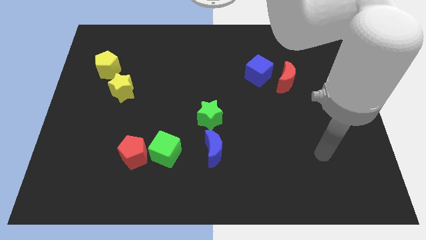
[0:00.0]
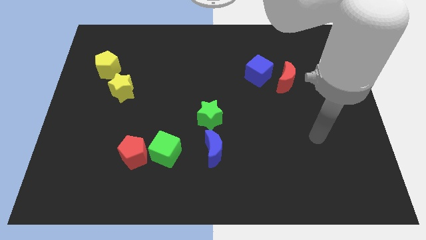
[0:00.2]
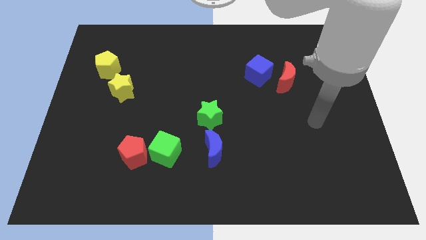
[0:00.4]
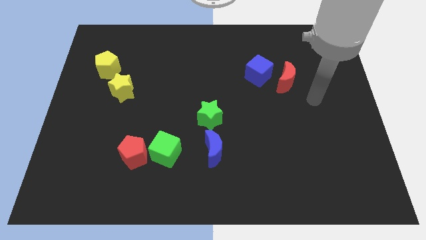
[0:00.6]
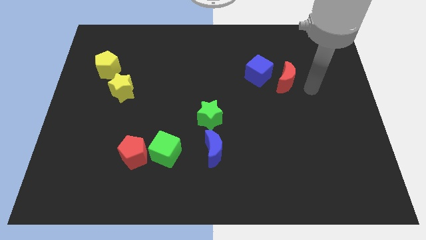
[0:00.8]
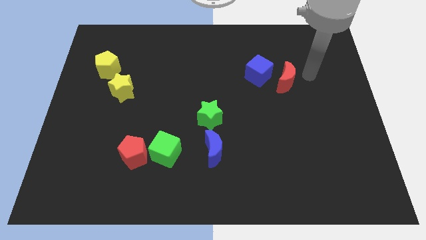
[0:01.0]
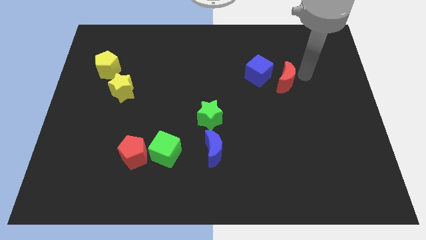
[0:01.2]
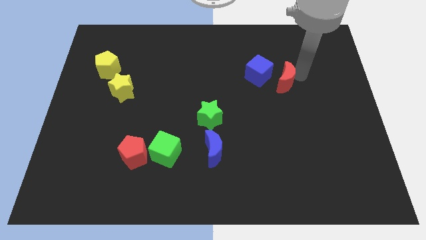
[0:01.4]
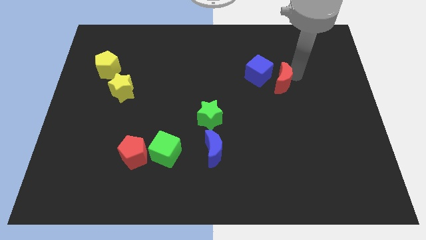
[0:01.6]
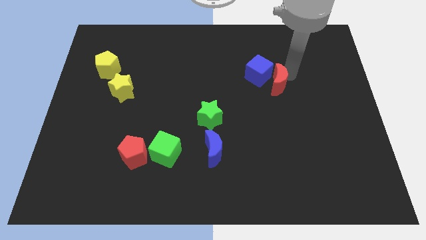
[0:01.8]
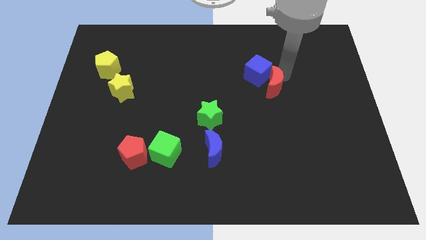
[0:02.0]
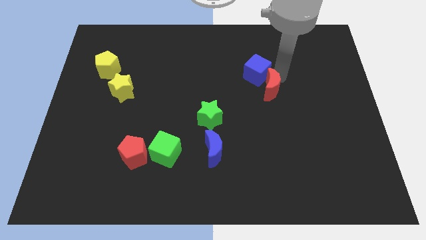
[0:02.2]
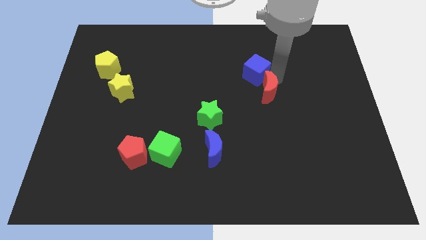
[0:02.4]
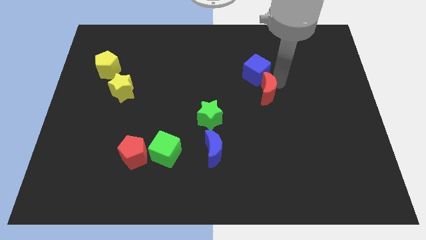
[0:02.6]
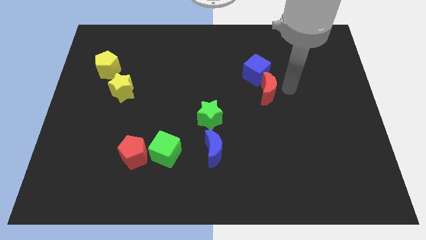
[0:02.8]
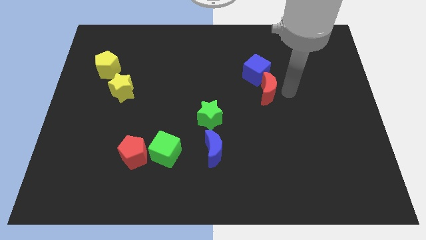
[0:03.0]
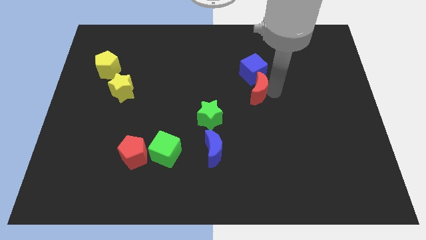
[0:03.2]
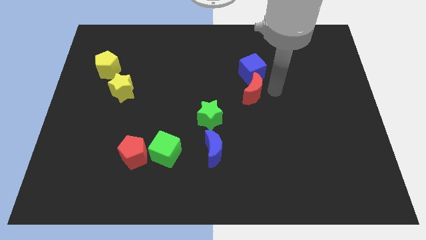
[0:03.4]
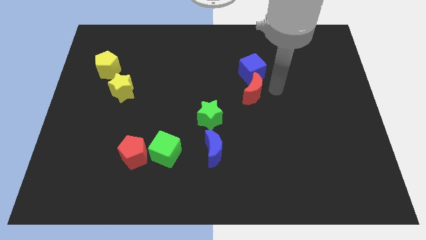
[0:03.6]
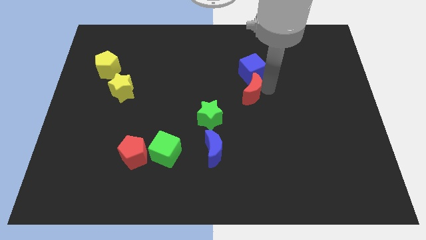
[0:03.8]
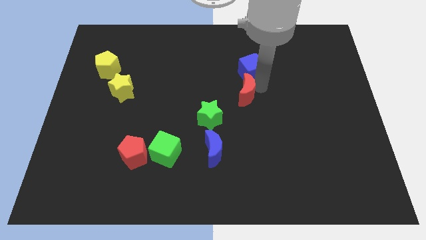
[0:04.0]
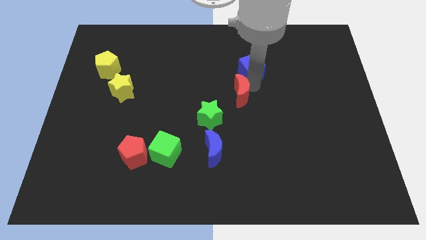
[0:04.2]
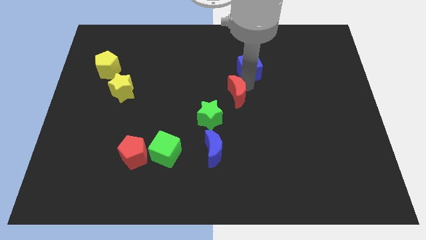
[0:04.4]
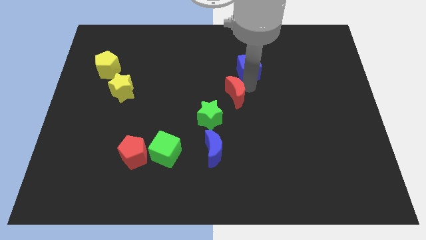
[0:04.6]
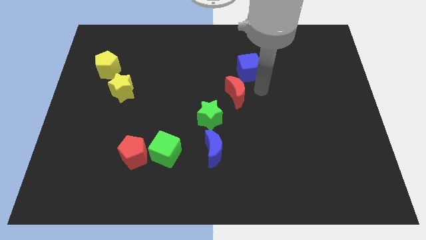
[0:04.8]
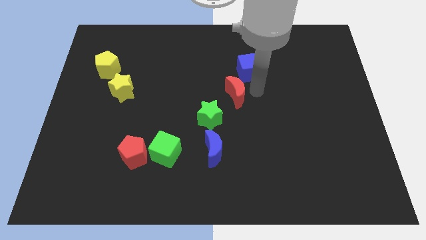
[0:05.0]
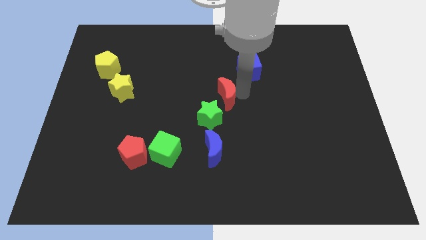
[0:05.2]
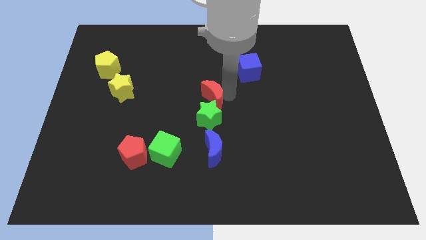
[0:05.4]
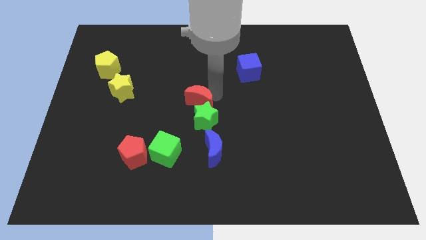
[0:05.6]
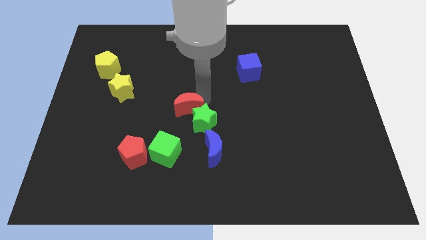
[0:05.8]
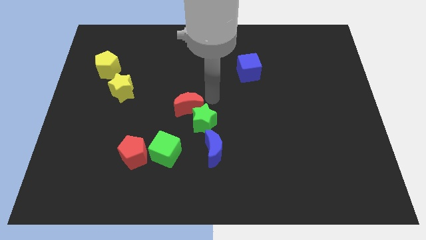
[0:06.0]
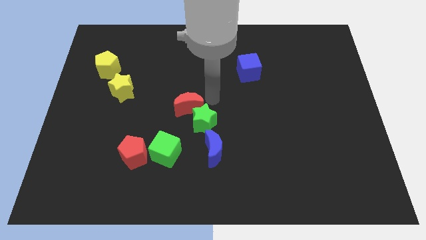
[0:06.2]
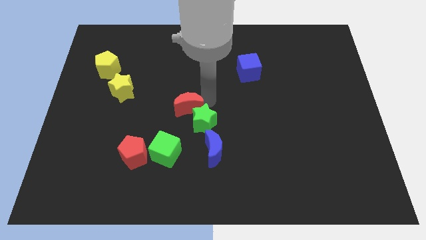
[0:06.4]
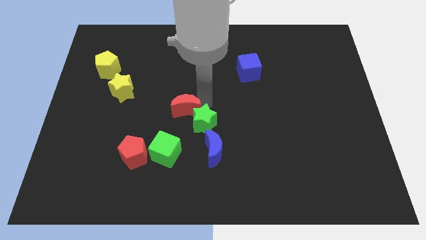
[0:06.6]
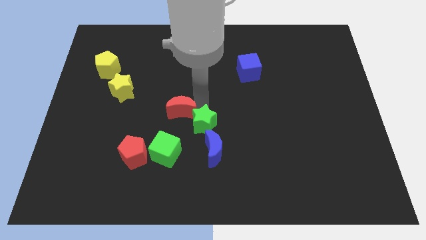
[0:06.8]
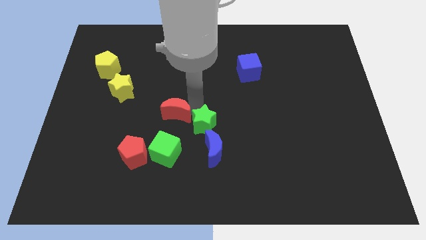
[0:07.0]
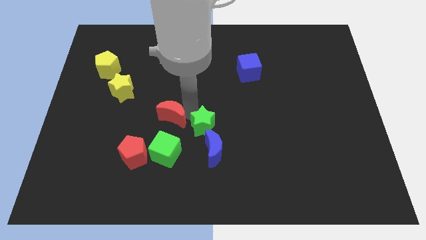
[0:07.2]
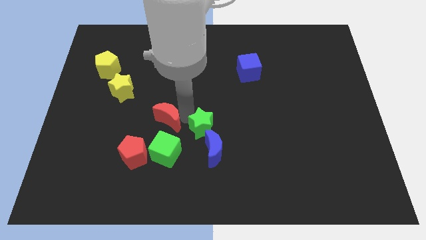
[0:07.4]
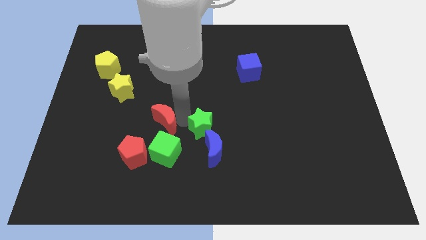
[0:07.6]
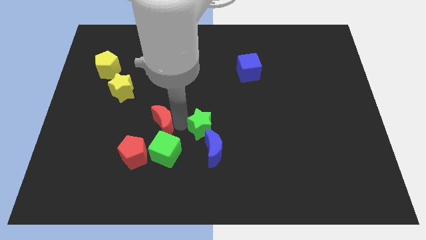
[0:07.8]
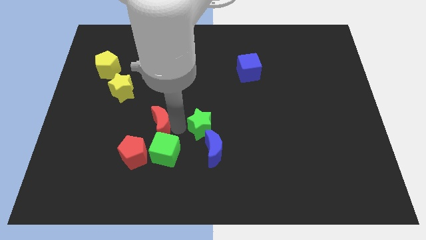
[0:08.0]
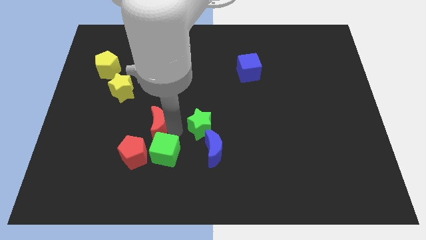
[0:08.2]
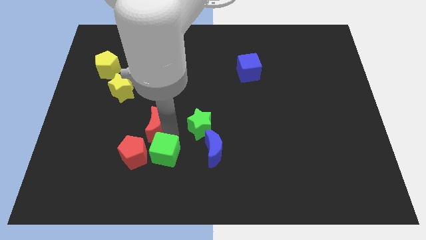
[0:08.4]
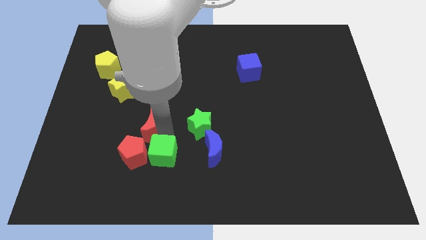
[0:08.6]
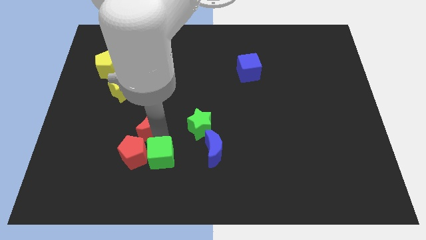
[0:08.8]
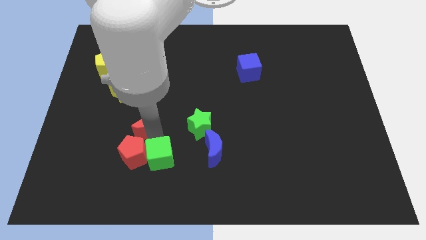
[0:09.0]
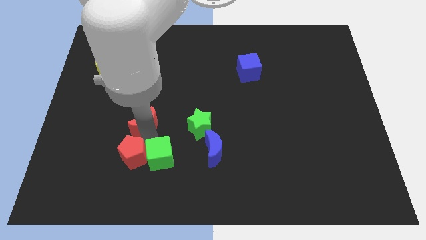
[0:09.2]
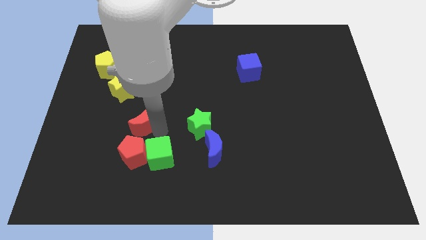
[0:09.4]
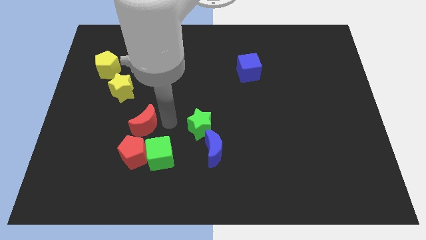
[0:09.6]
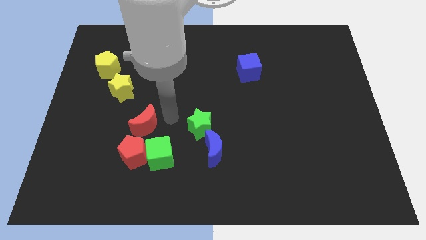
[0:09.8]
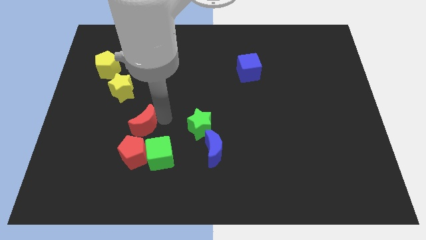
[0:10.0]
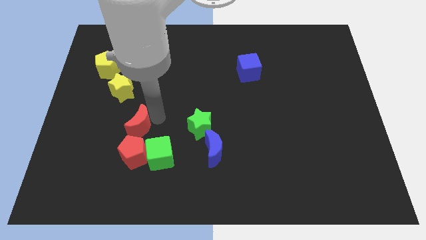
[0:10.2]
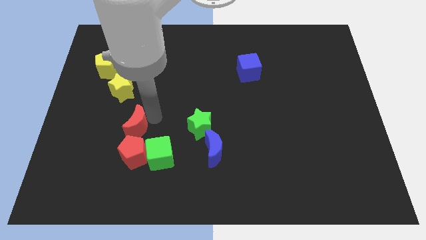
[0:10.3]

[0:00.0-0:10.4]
move the red moon to the top left side of the red pentagon

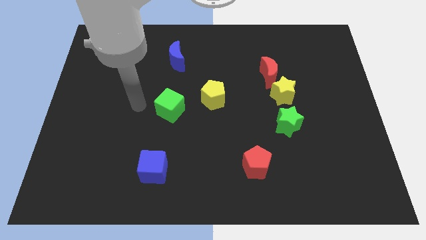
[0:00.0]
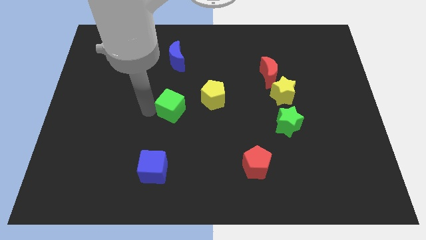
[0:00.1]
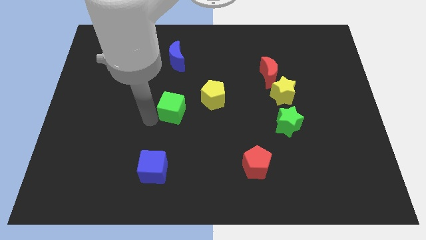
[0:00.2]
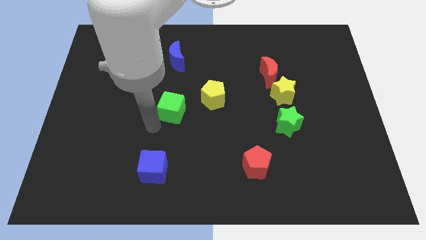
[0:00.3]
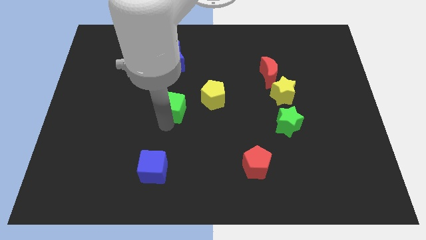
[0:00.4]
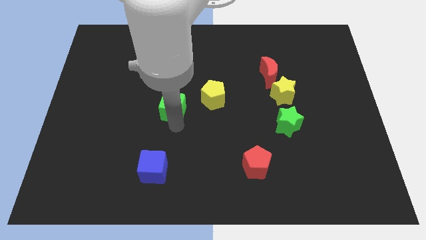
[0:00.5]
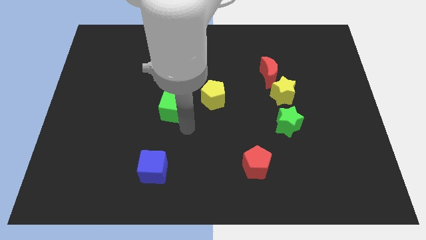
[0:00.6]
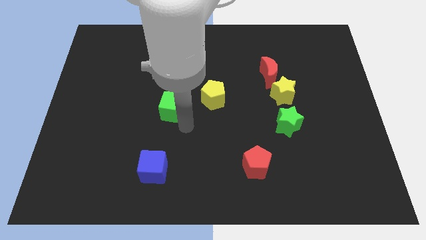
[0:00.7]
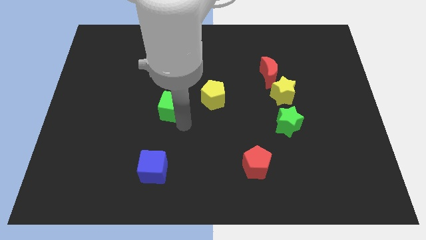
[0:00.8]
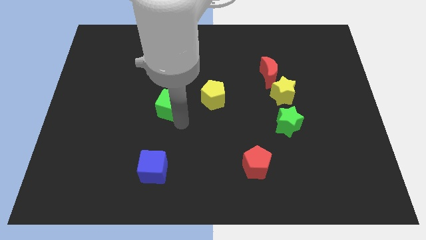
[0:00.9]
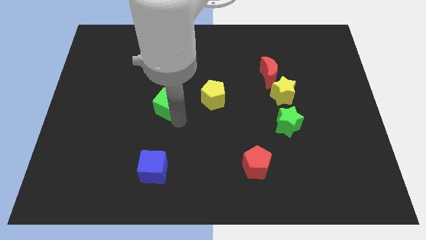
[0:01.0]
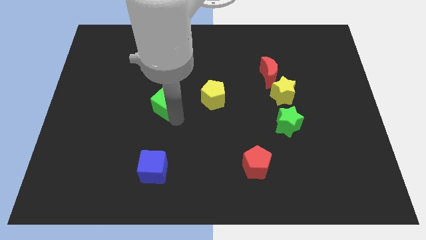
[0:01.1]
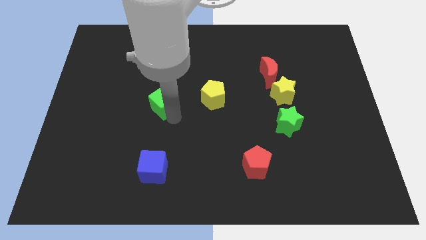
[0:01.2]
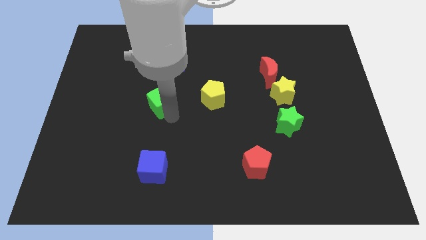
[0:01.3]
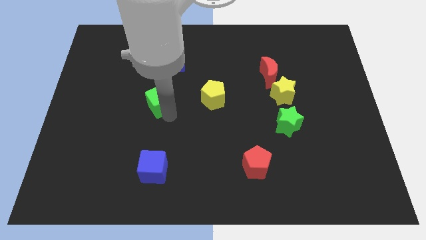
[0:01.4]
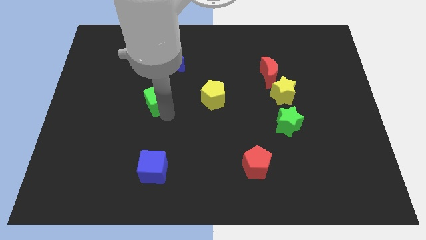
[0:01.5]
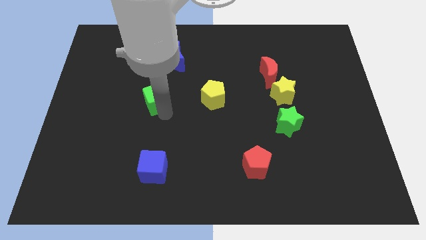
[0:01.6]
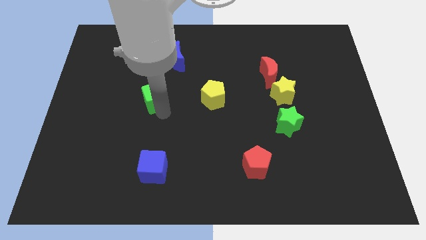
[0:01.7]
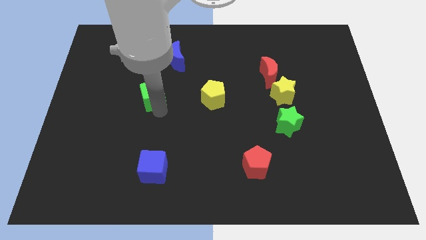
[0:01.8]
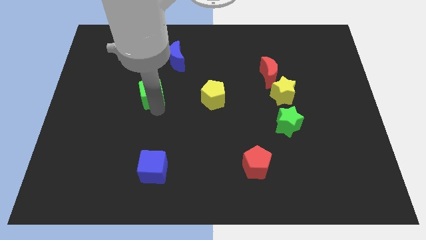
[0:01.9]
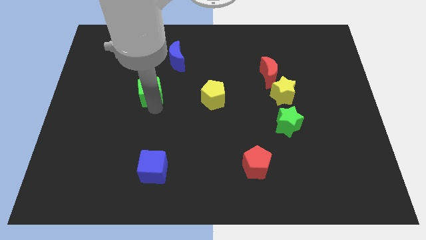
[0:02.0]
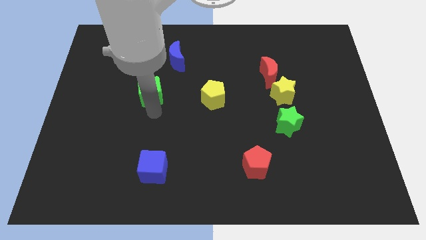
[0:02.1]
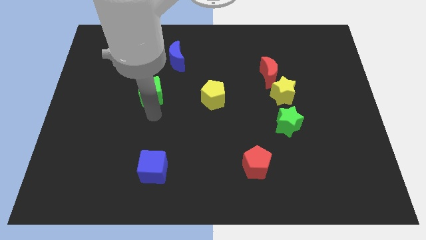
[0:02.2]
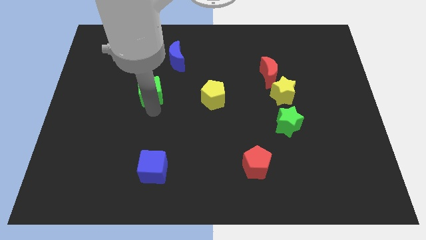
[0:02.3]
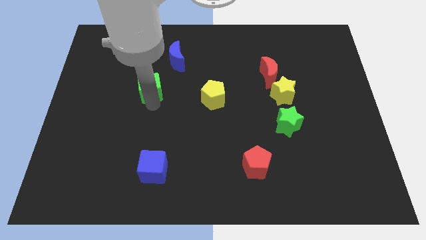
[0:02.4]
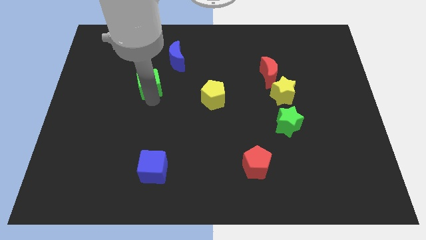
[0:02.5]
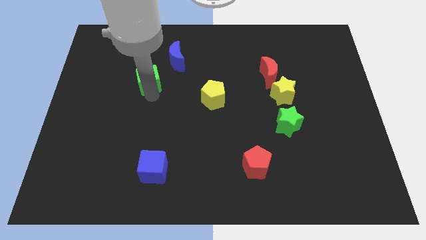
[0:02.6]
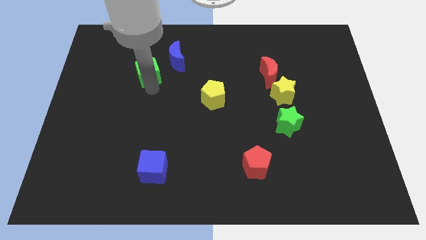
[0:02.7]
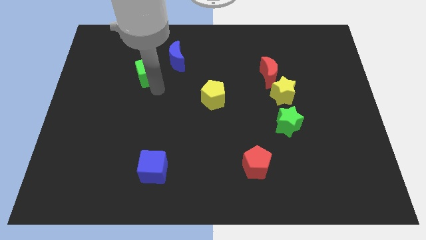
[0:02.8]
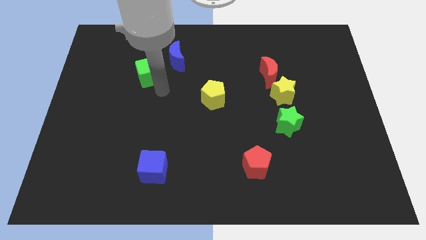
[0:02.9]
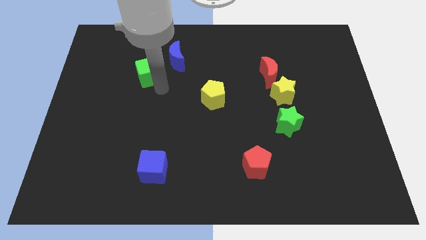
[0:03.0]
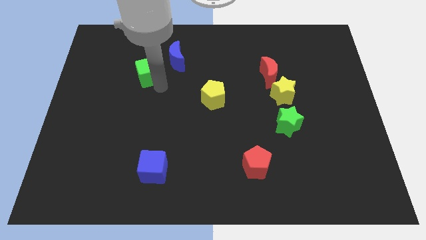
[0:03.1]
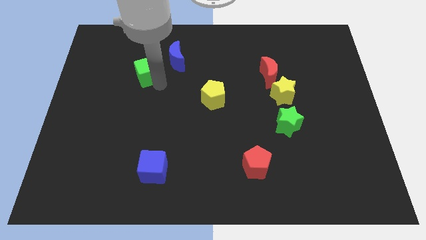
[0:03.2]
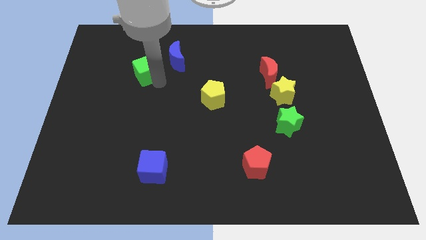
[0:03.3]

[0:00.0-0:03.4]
push the green cube to the left of the blue moon
